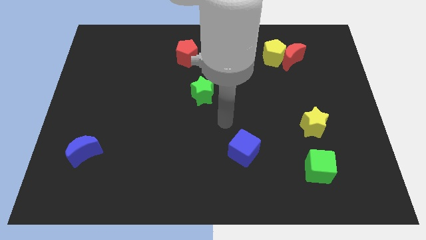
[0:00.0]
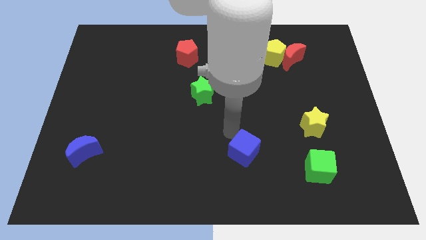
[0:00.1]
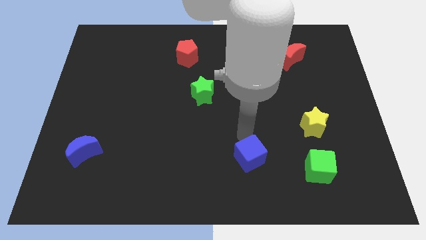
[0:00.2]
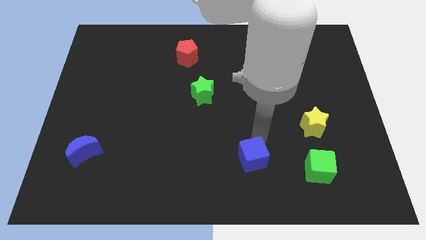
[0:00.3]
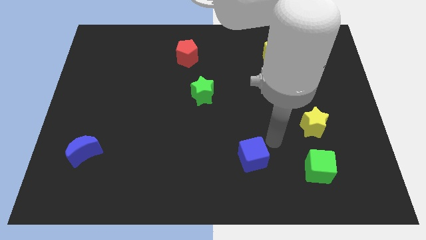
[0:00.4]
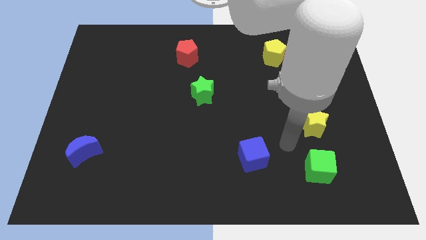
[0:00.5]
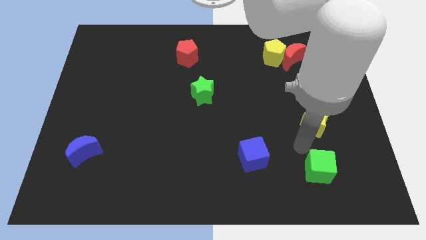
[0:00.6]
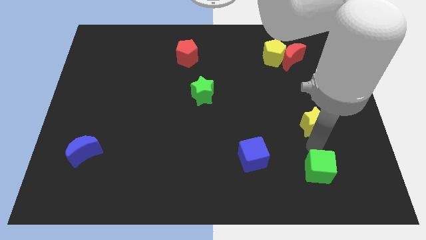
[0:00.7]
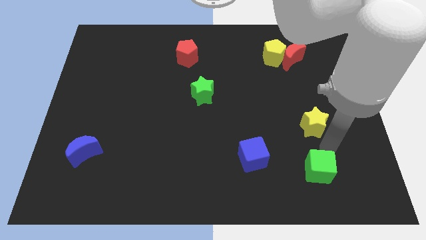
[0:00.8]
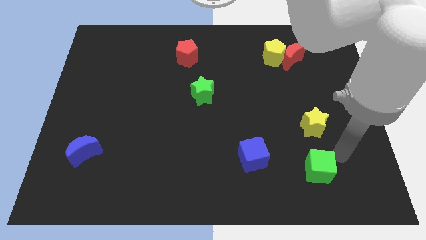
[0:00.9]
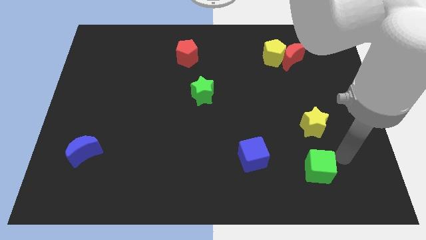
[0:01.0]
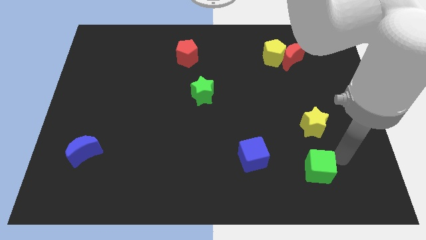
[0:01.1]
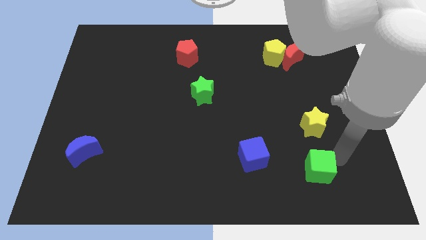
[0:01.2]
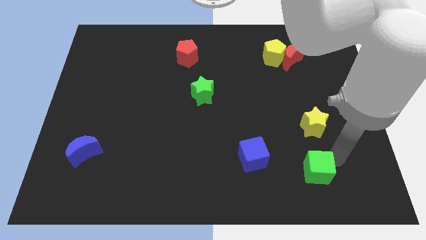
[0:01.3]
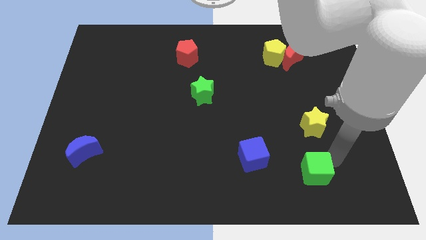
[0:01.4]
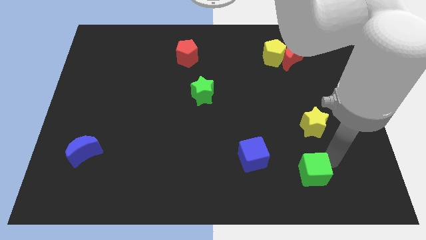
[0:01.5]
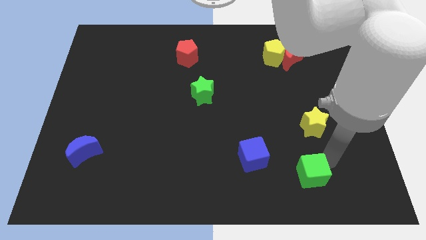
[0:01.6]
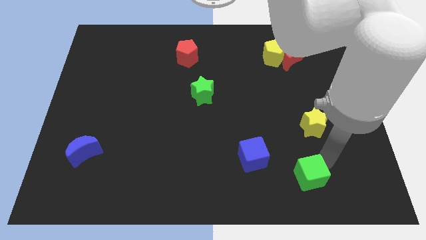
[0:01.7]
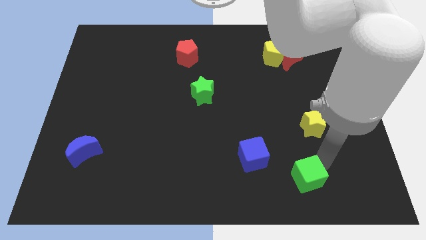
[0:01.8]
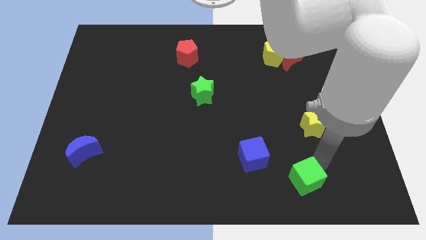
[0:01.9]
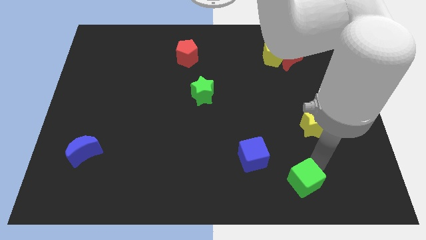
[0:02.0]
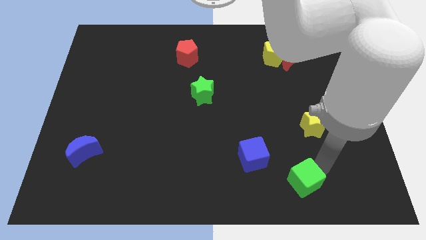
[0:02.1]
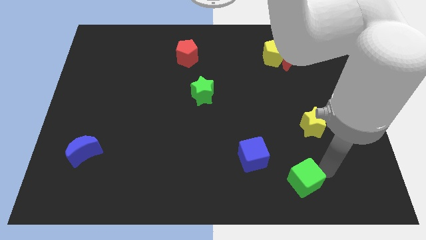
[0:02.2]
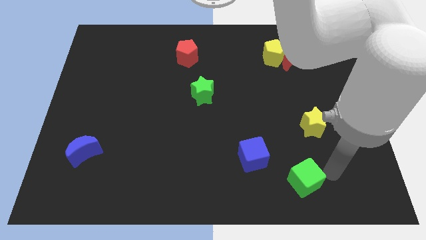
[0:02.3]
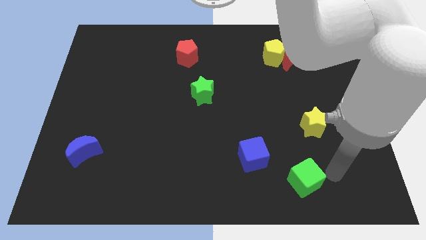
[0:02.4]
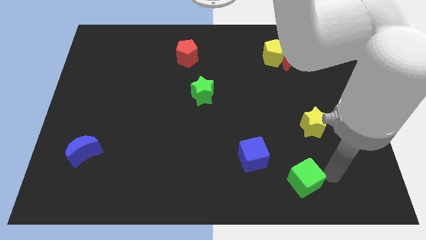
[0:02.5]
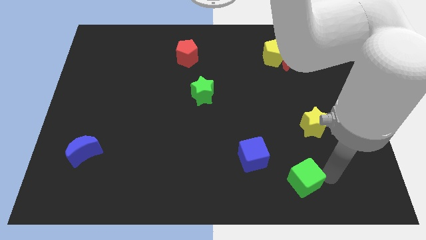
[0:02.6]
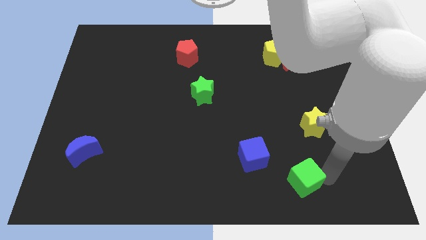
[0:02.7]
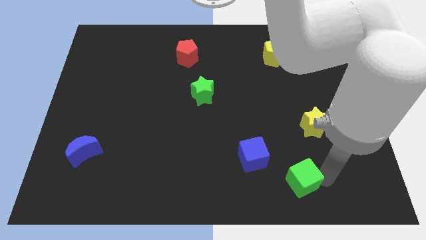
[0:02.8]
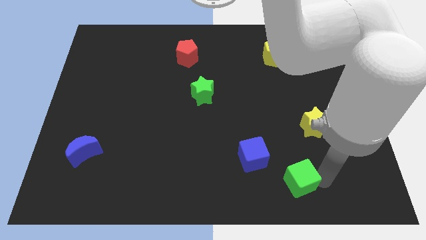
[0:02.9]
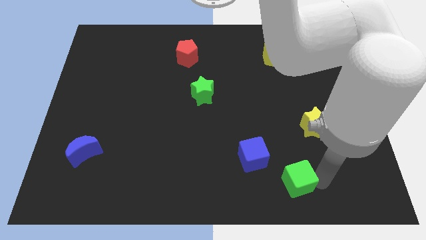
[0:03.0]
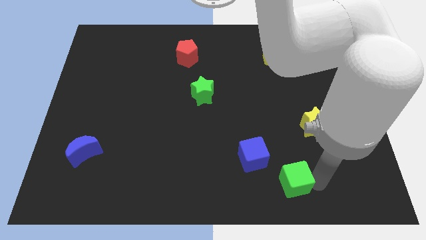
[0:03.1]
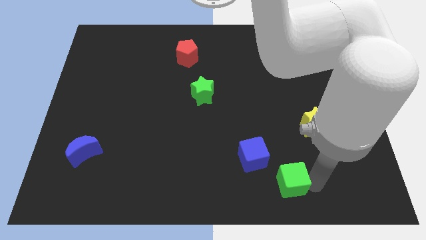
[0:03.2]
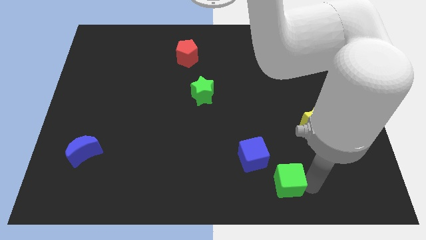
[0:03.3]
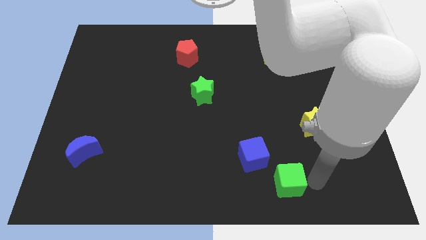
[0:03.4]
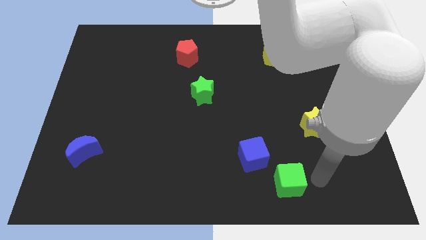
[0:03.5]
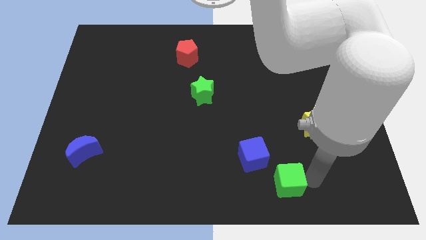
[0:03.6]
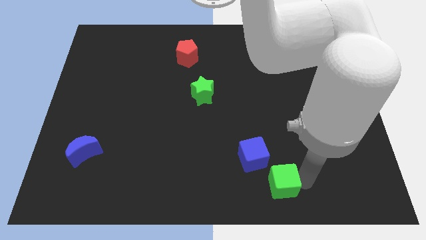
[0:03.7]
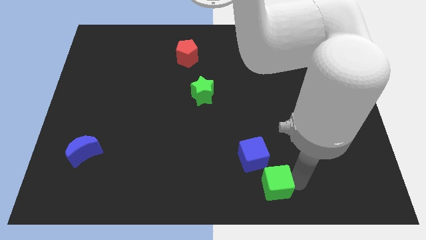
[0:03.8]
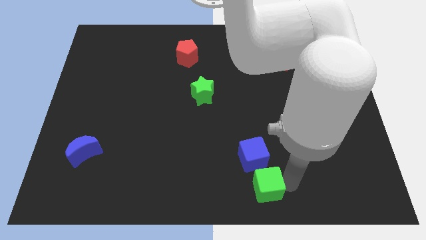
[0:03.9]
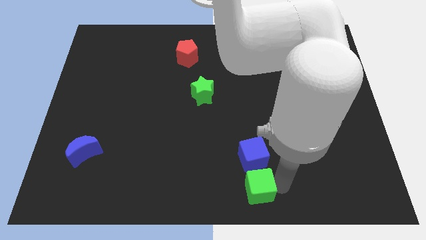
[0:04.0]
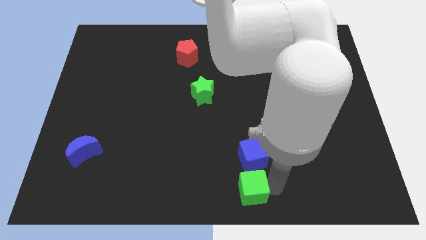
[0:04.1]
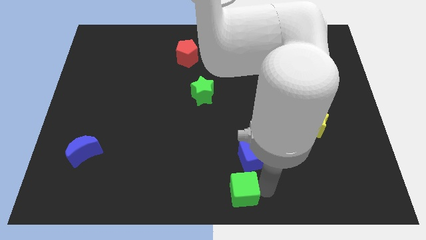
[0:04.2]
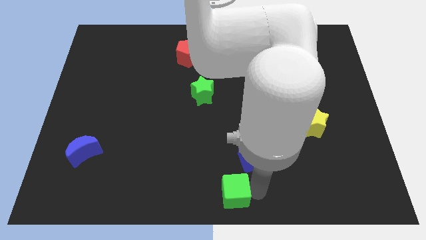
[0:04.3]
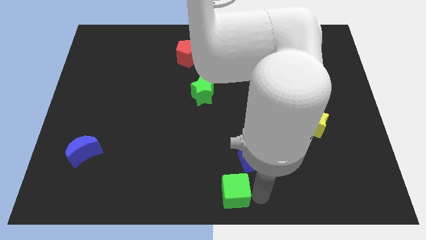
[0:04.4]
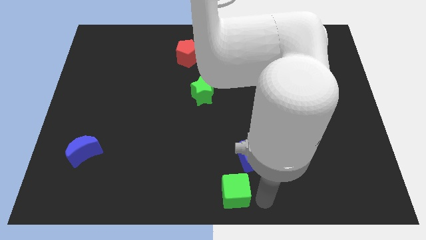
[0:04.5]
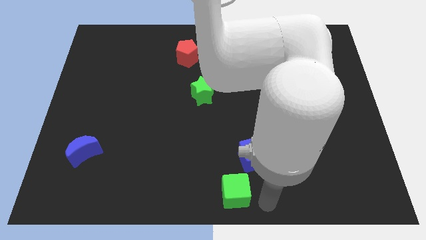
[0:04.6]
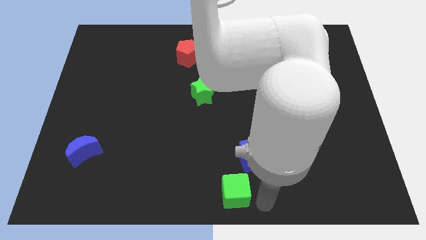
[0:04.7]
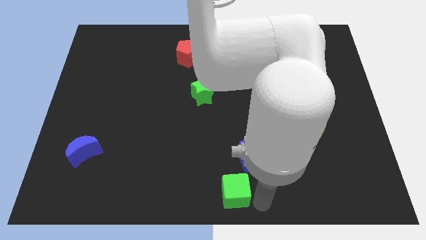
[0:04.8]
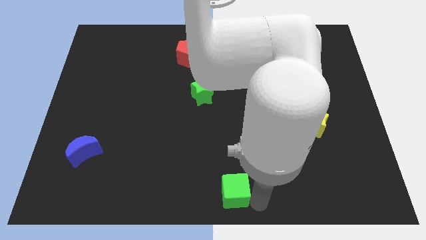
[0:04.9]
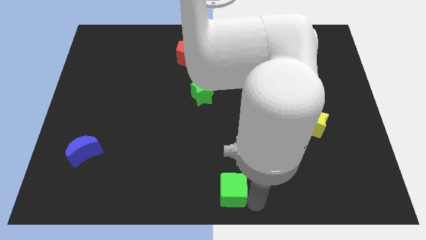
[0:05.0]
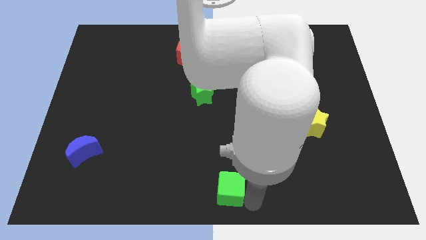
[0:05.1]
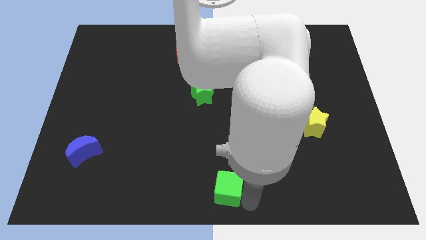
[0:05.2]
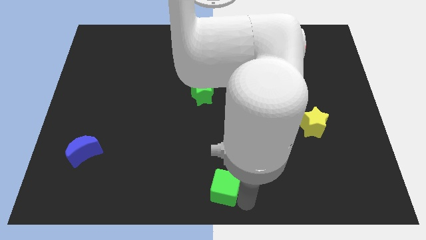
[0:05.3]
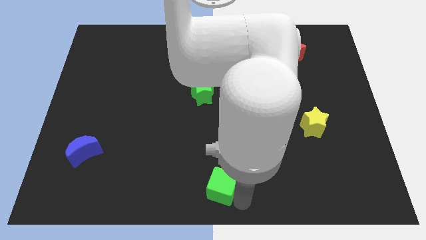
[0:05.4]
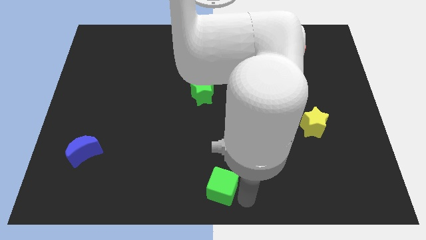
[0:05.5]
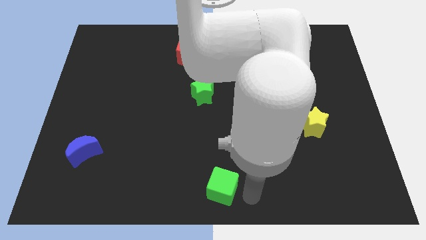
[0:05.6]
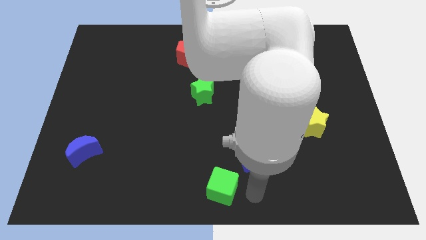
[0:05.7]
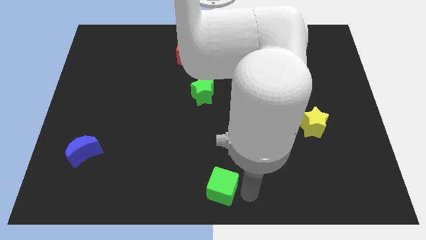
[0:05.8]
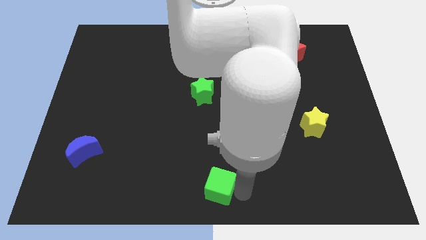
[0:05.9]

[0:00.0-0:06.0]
slide the green cube left

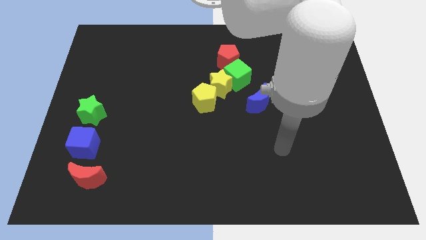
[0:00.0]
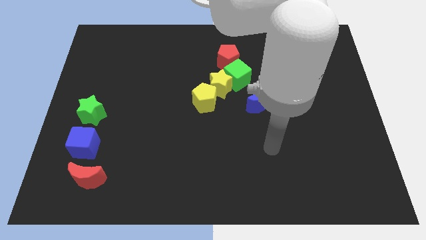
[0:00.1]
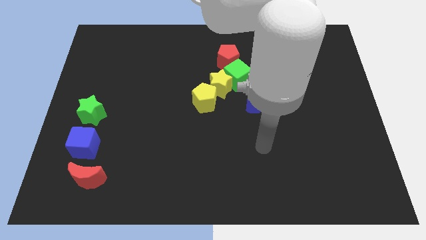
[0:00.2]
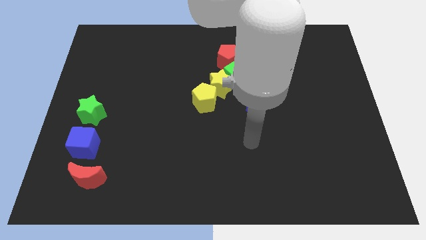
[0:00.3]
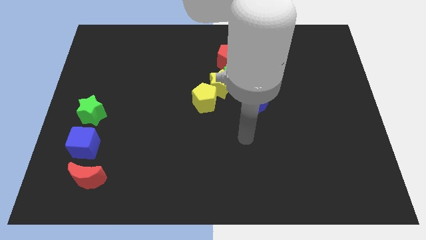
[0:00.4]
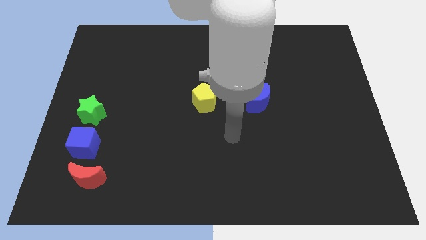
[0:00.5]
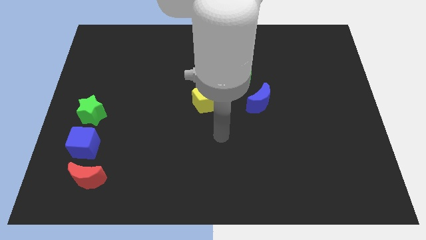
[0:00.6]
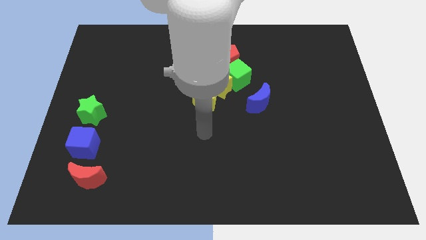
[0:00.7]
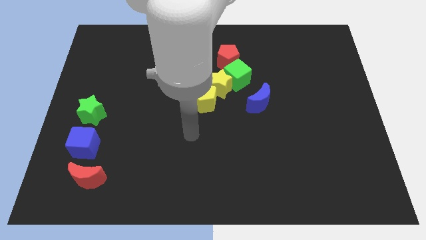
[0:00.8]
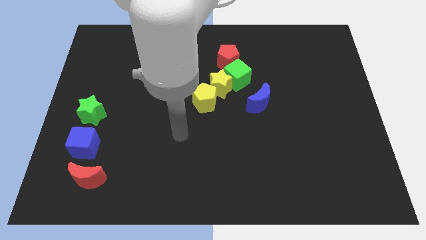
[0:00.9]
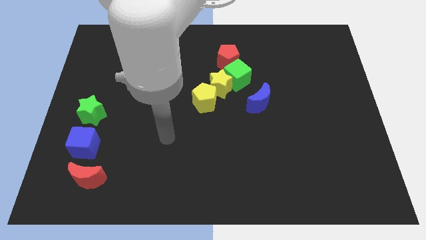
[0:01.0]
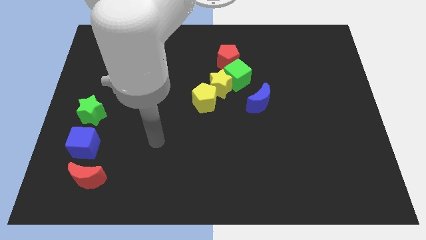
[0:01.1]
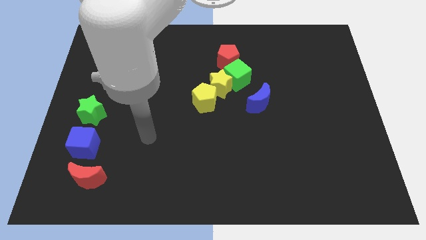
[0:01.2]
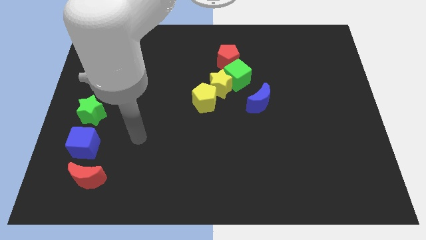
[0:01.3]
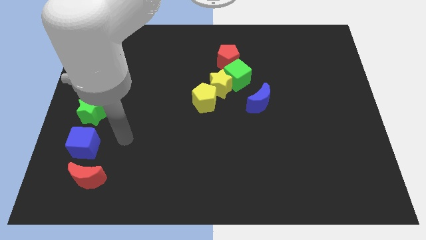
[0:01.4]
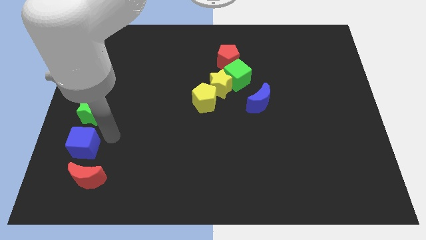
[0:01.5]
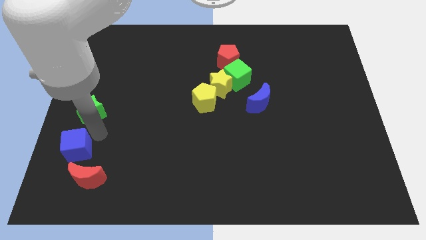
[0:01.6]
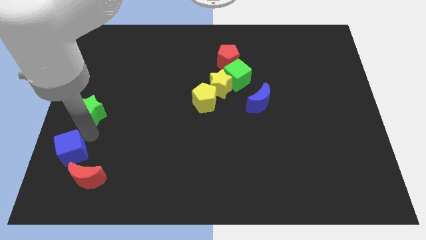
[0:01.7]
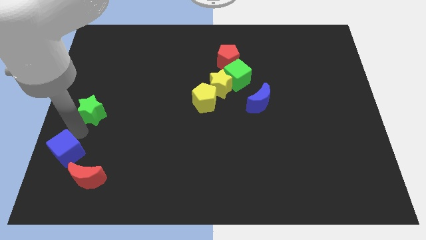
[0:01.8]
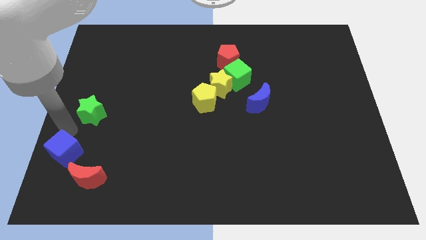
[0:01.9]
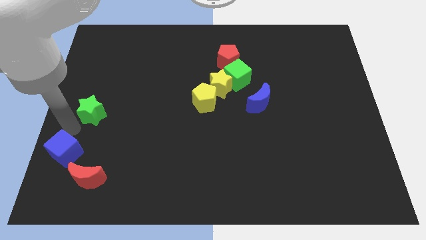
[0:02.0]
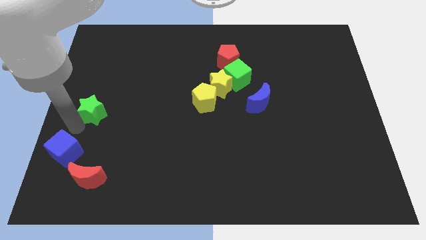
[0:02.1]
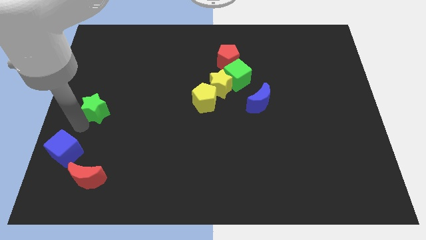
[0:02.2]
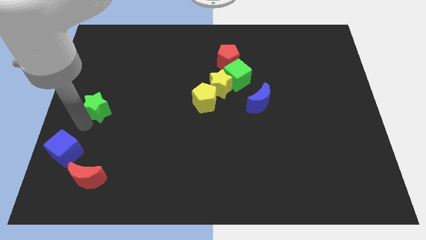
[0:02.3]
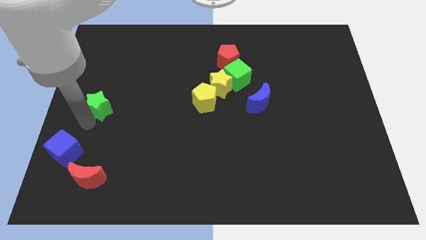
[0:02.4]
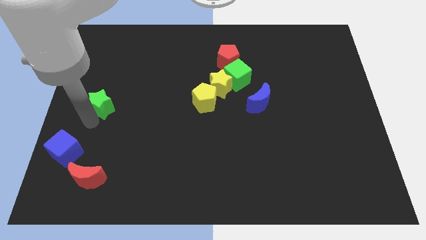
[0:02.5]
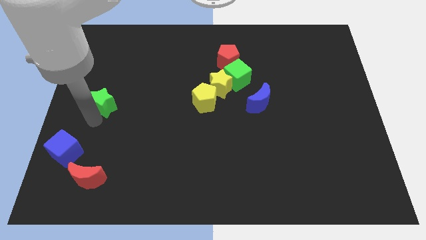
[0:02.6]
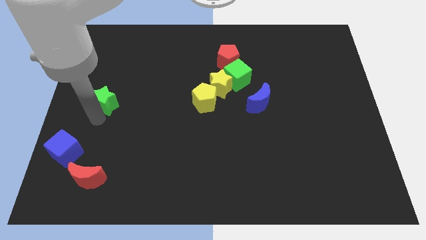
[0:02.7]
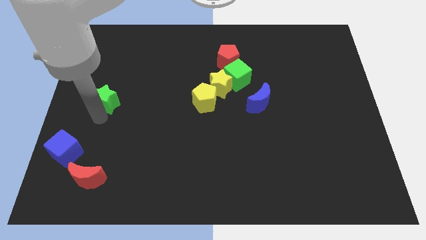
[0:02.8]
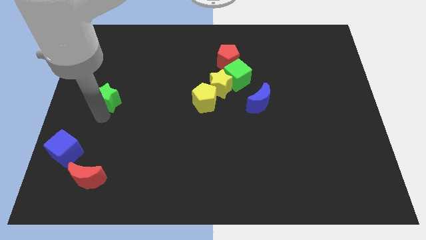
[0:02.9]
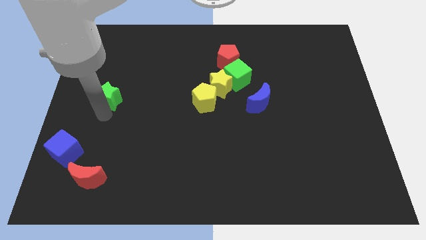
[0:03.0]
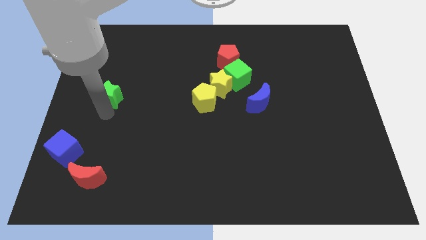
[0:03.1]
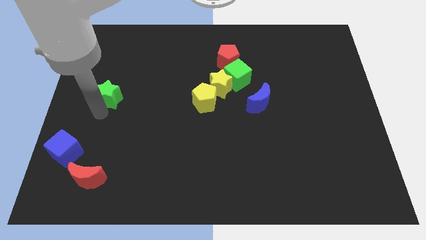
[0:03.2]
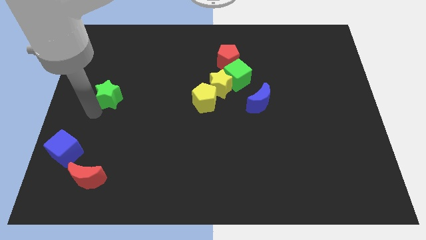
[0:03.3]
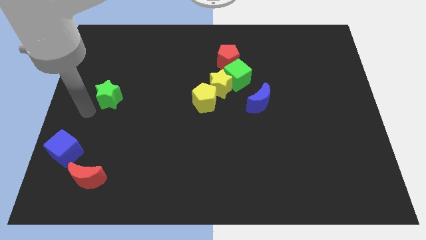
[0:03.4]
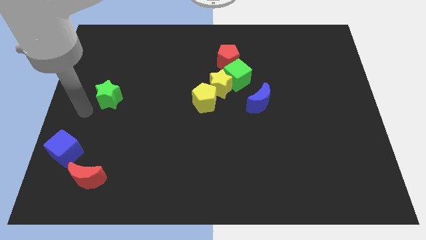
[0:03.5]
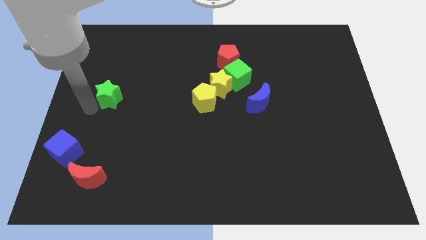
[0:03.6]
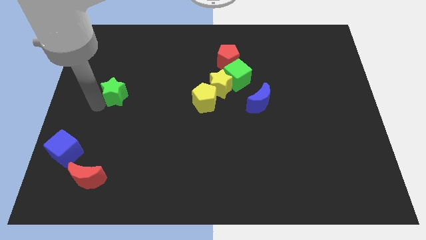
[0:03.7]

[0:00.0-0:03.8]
slide the green star a bit up and then right
